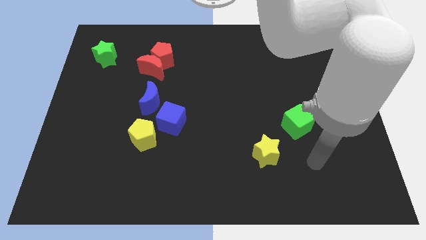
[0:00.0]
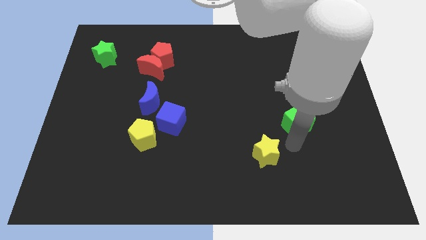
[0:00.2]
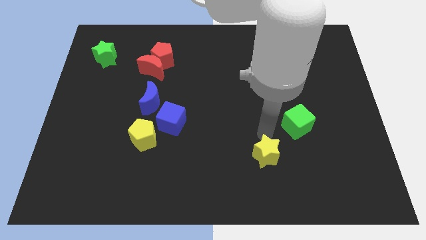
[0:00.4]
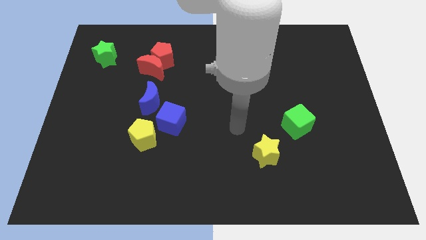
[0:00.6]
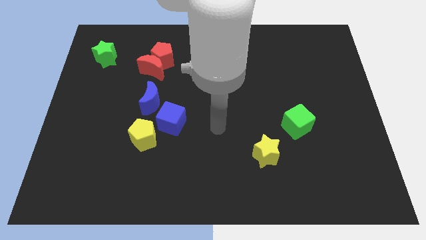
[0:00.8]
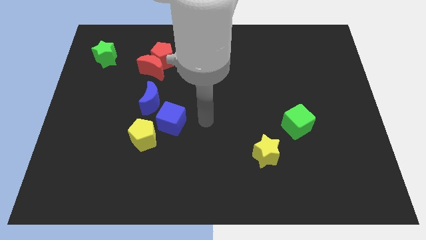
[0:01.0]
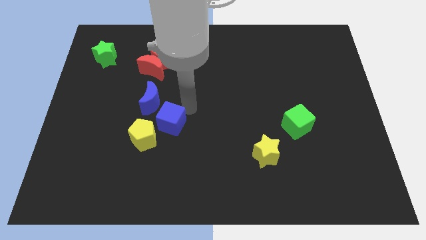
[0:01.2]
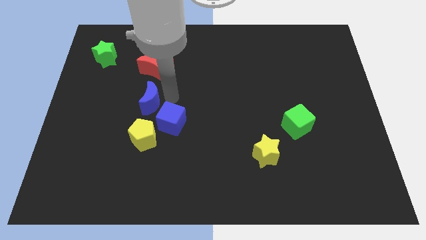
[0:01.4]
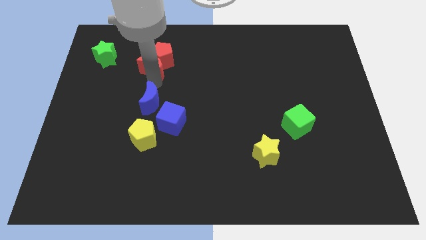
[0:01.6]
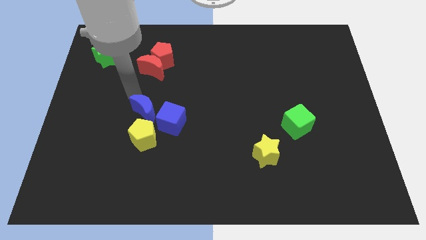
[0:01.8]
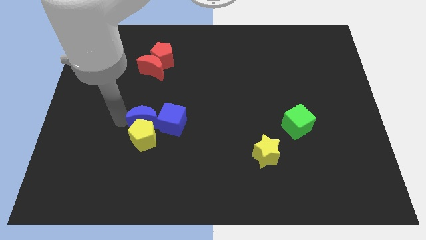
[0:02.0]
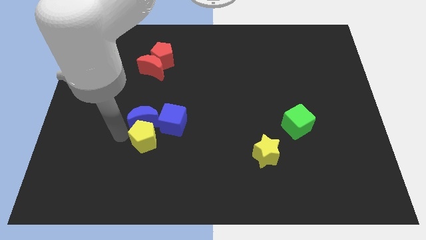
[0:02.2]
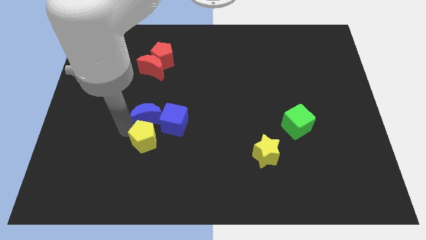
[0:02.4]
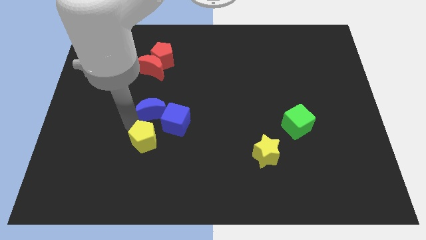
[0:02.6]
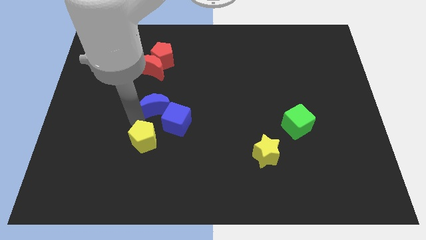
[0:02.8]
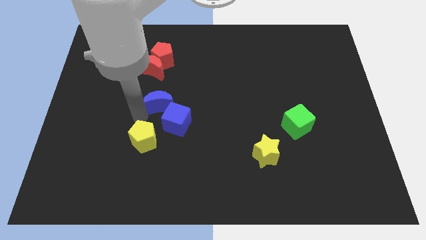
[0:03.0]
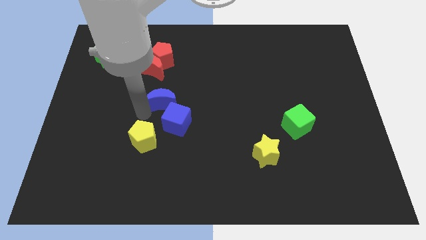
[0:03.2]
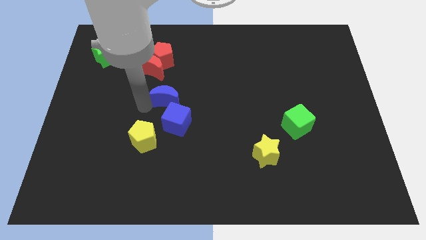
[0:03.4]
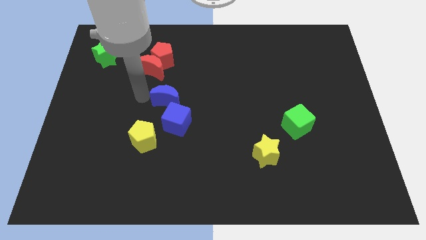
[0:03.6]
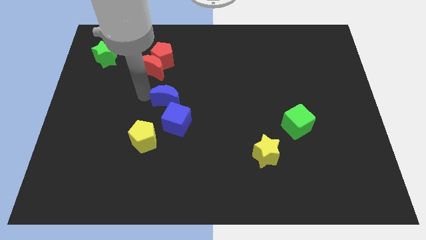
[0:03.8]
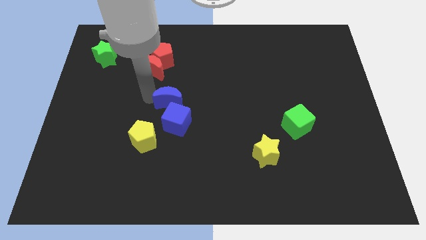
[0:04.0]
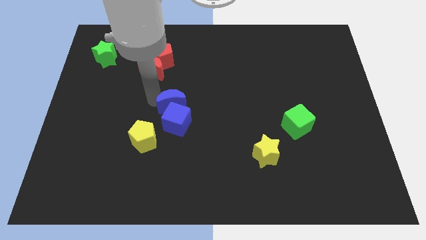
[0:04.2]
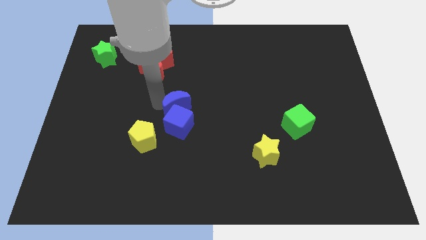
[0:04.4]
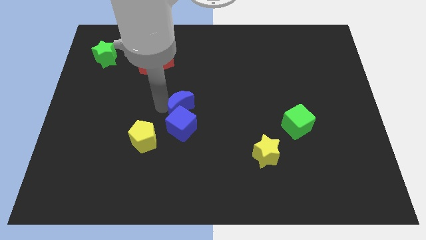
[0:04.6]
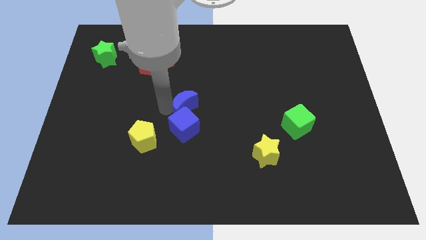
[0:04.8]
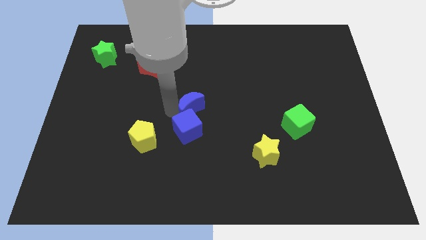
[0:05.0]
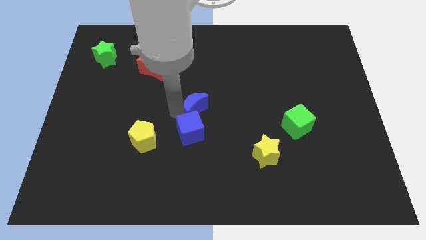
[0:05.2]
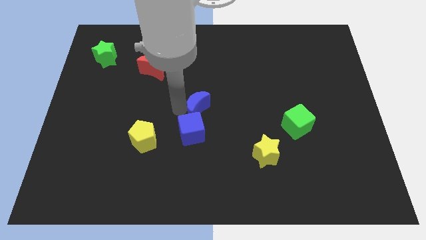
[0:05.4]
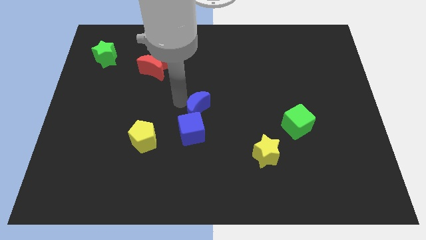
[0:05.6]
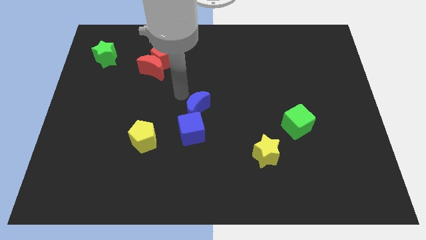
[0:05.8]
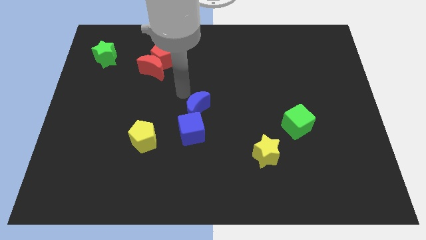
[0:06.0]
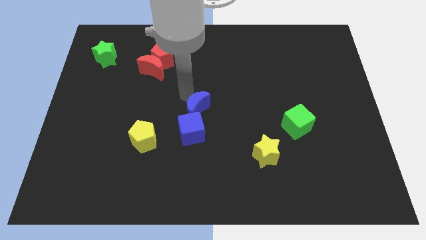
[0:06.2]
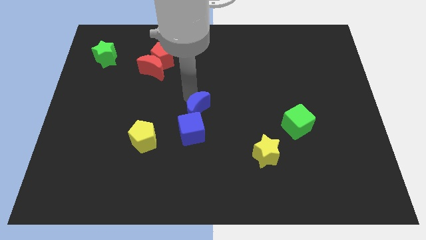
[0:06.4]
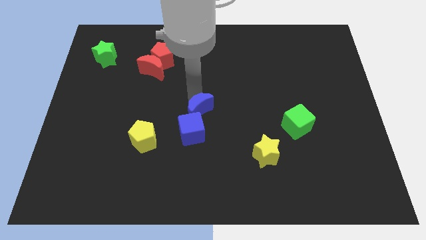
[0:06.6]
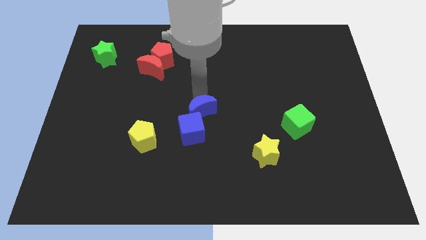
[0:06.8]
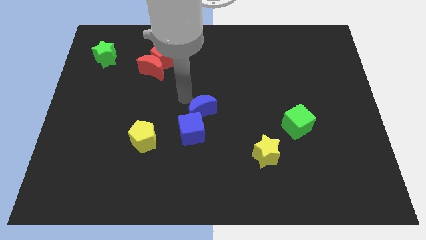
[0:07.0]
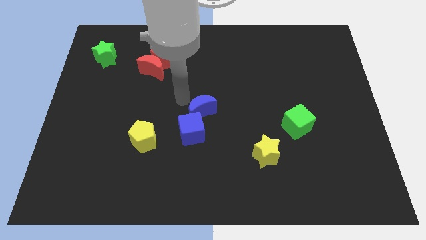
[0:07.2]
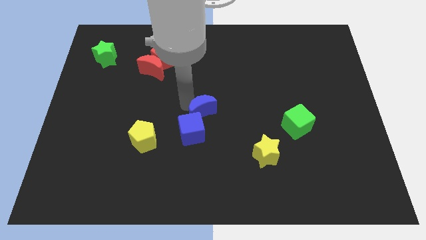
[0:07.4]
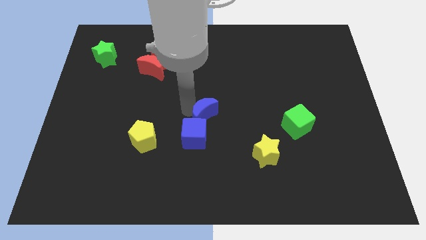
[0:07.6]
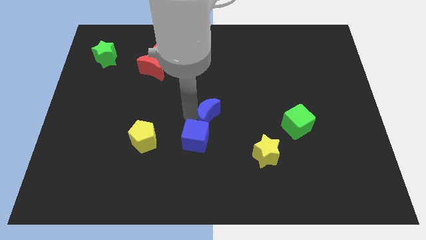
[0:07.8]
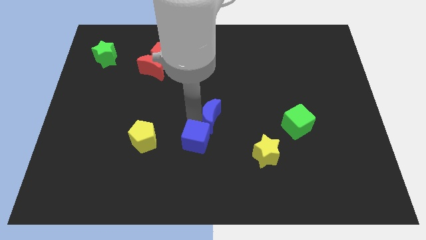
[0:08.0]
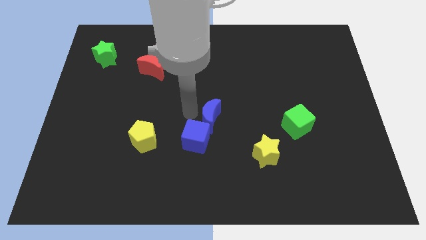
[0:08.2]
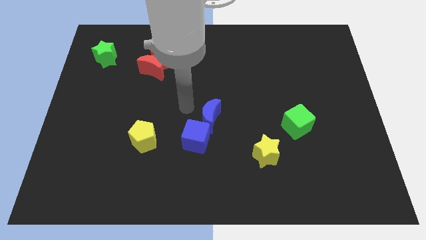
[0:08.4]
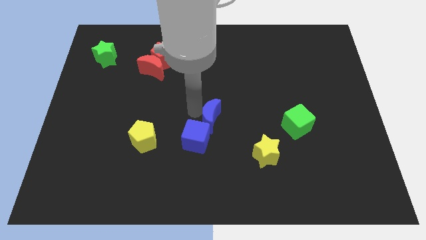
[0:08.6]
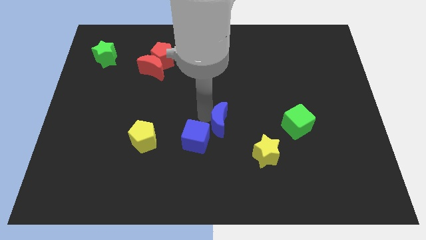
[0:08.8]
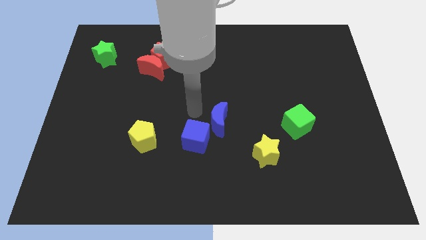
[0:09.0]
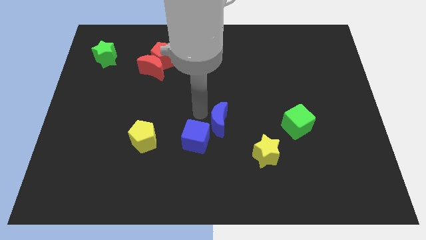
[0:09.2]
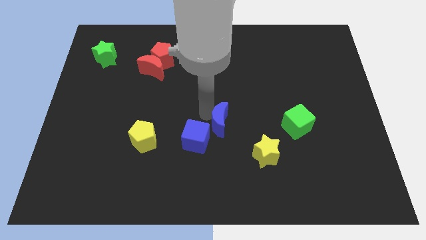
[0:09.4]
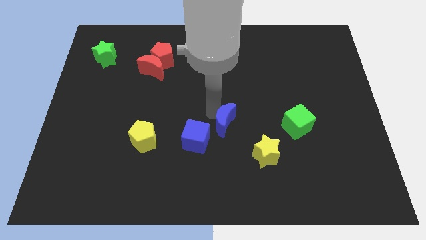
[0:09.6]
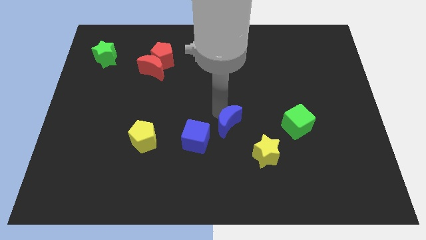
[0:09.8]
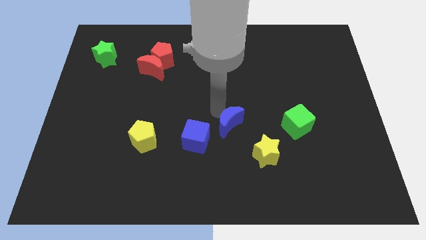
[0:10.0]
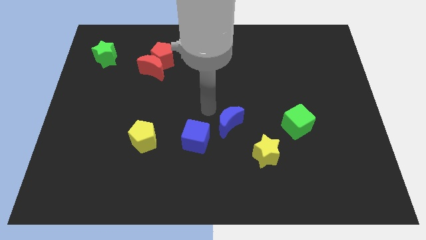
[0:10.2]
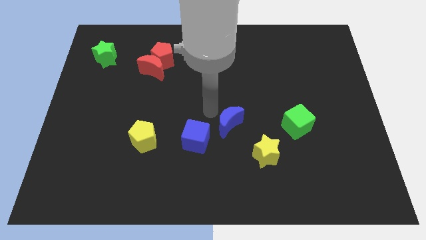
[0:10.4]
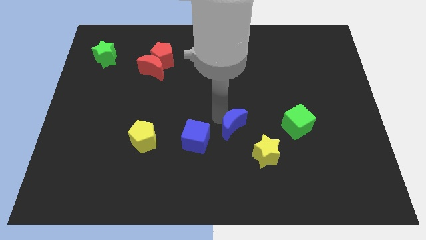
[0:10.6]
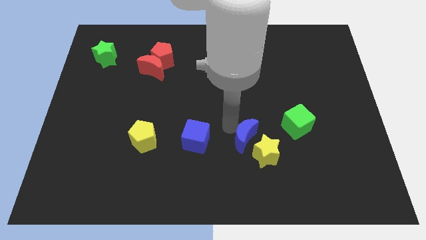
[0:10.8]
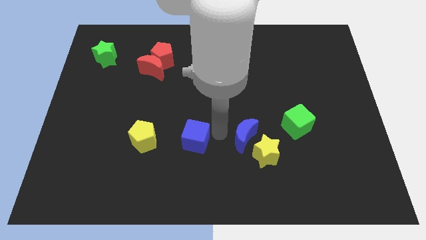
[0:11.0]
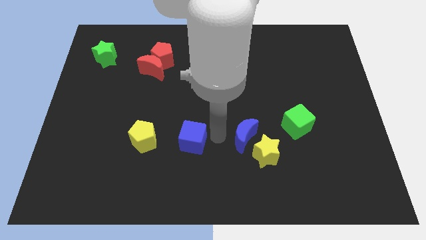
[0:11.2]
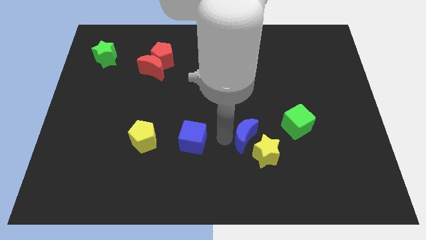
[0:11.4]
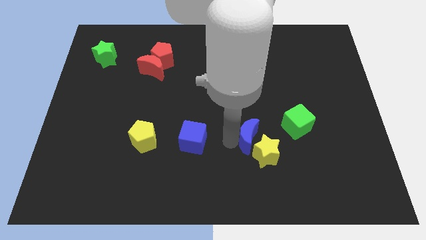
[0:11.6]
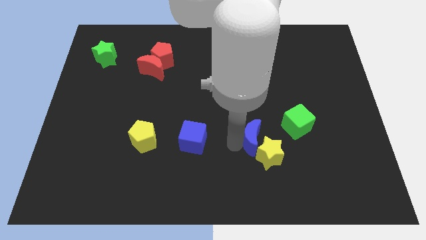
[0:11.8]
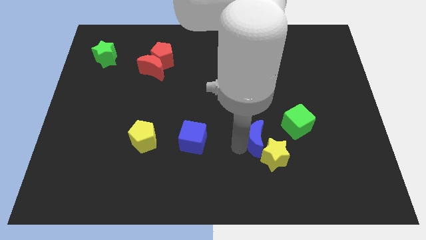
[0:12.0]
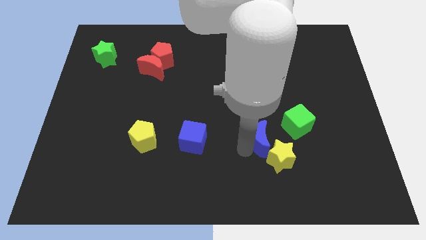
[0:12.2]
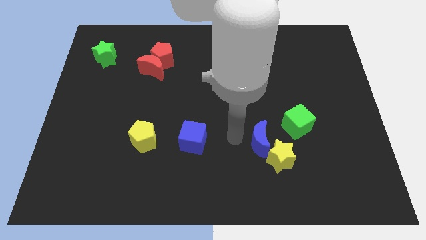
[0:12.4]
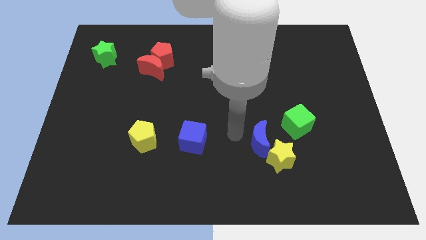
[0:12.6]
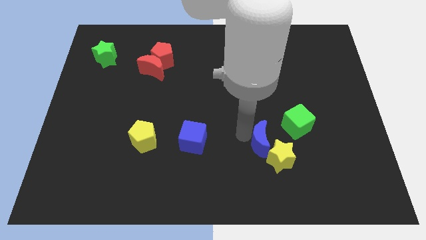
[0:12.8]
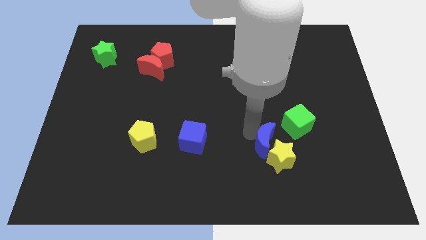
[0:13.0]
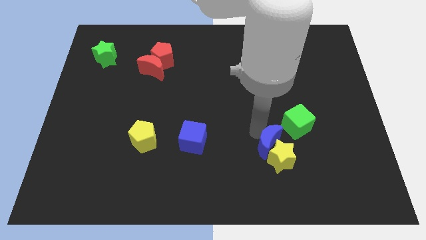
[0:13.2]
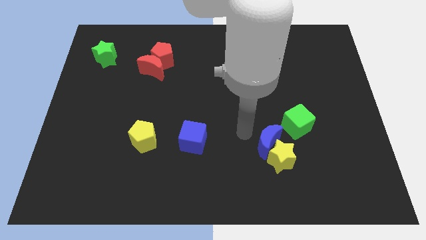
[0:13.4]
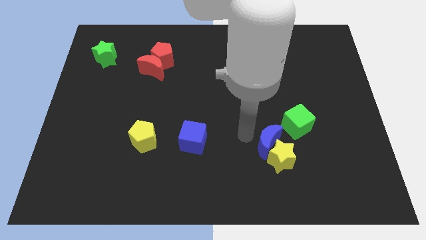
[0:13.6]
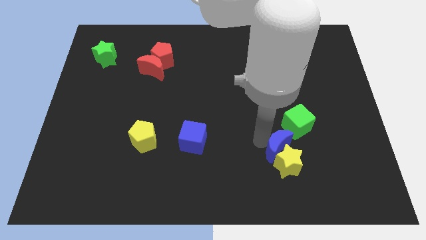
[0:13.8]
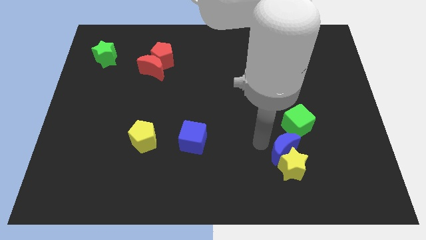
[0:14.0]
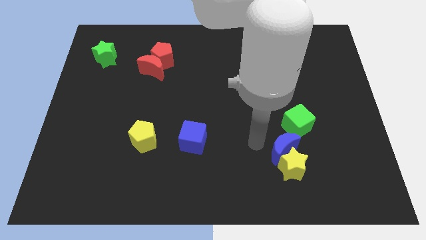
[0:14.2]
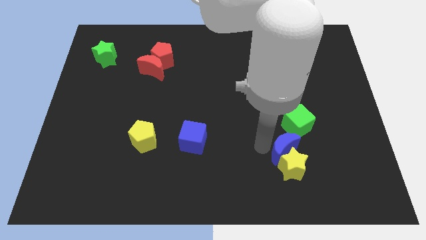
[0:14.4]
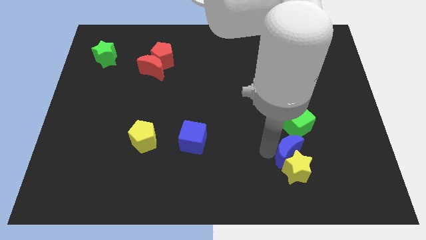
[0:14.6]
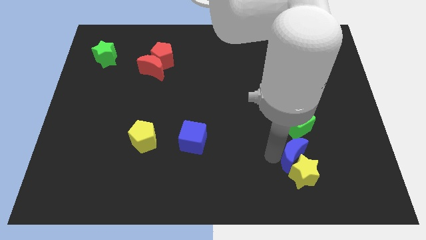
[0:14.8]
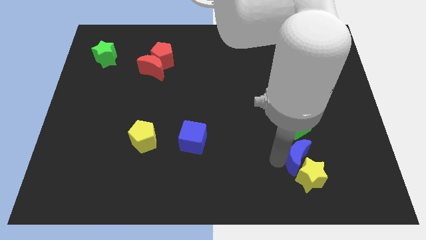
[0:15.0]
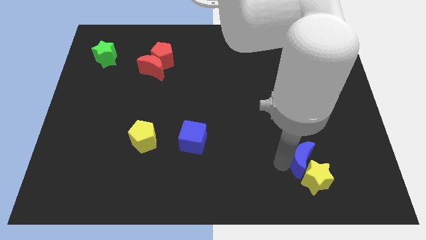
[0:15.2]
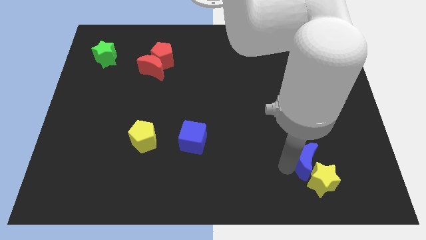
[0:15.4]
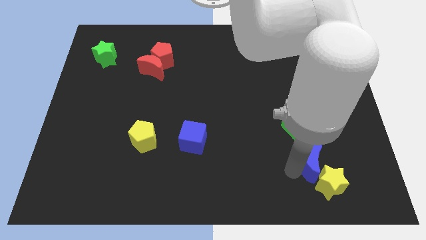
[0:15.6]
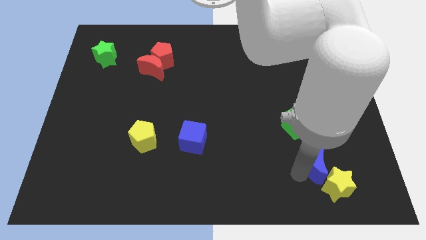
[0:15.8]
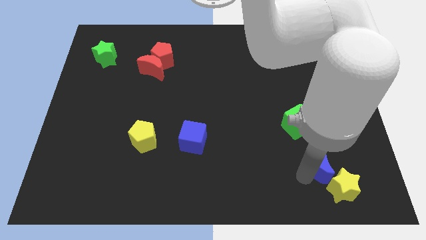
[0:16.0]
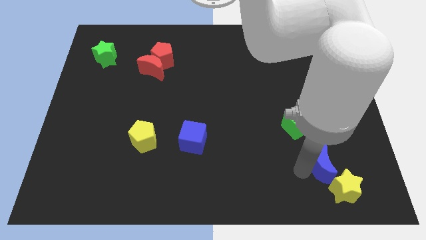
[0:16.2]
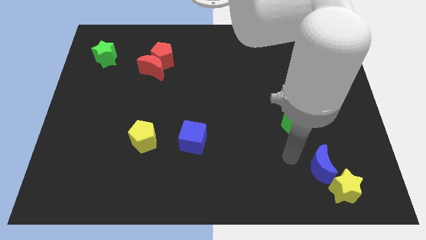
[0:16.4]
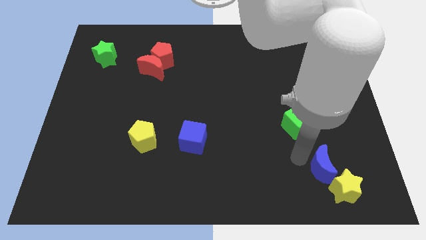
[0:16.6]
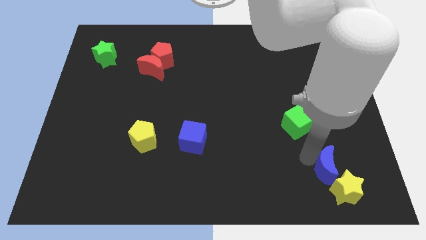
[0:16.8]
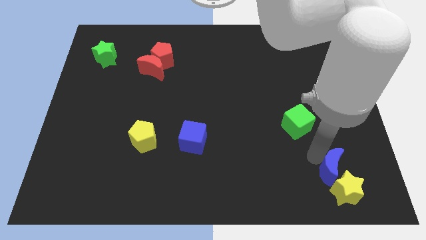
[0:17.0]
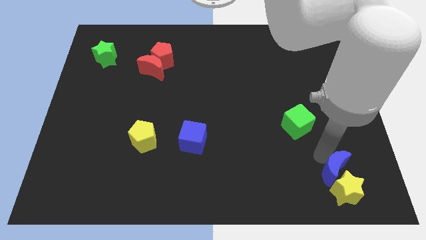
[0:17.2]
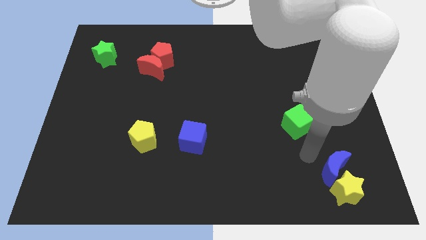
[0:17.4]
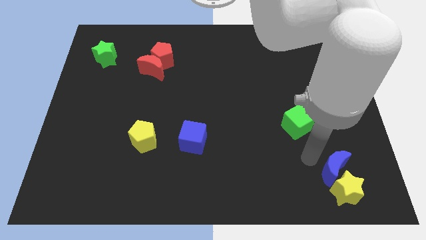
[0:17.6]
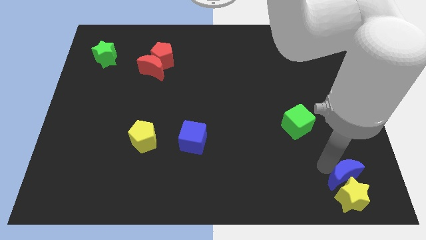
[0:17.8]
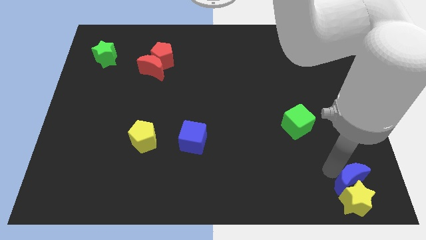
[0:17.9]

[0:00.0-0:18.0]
push the blue moon to the bottom right
